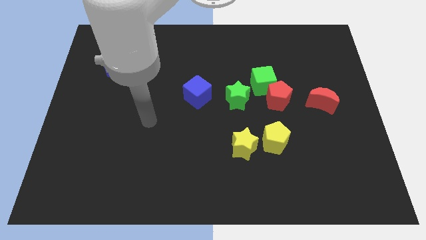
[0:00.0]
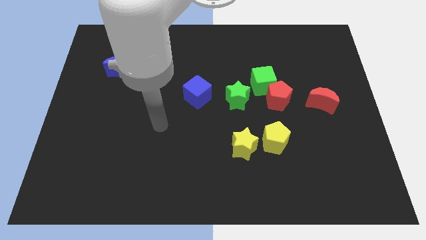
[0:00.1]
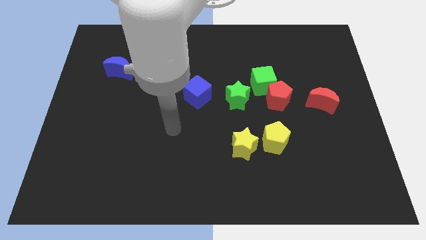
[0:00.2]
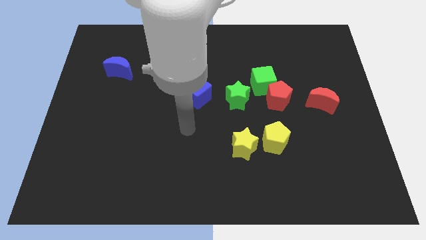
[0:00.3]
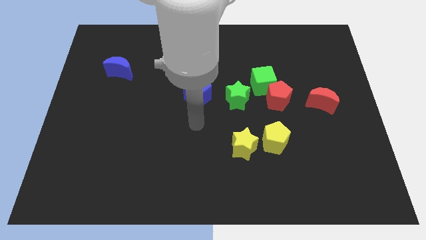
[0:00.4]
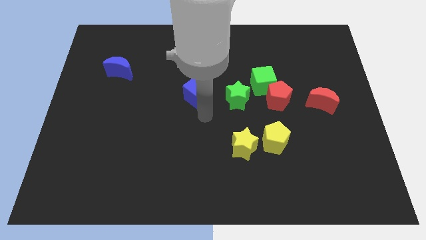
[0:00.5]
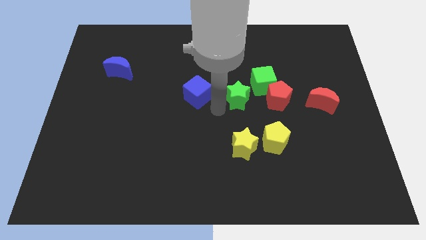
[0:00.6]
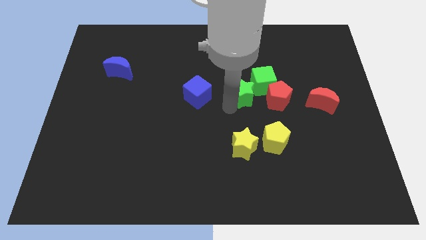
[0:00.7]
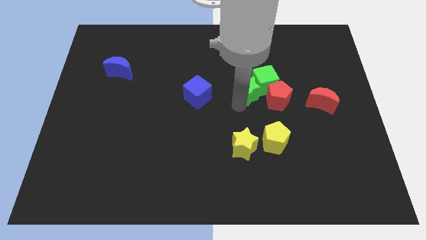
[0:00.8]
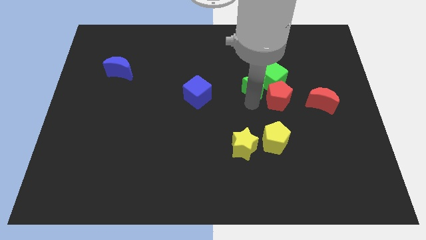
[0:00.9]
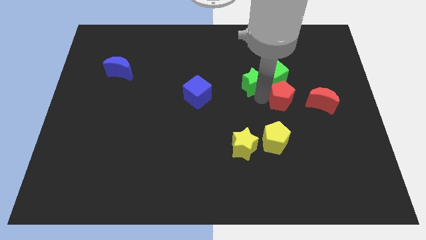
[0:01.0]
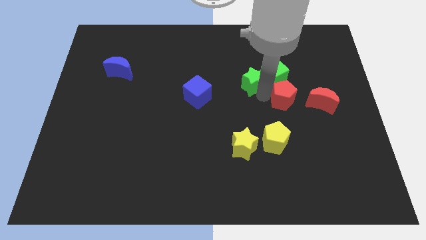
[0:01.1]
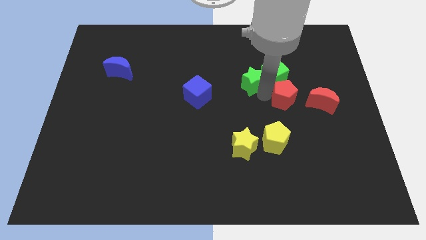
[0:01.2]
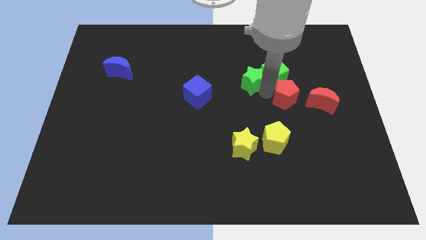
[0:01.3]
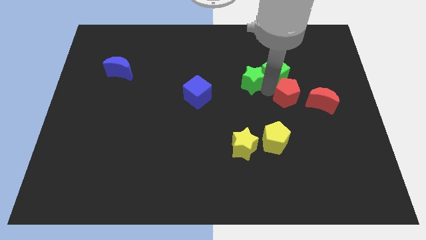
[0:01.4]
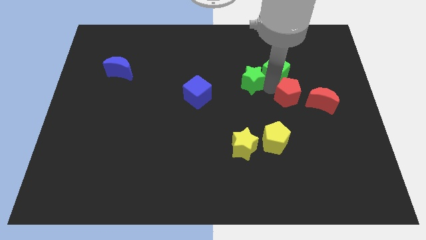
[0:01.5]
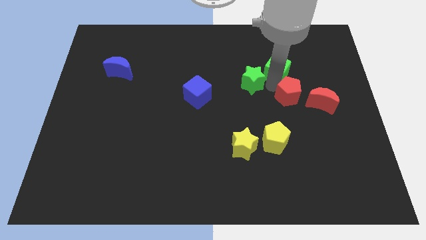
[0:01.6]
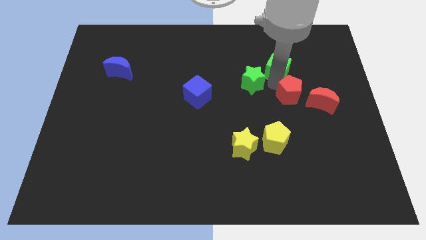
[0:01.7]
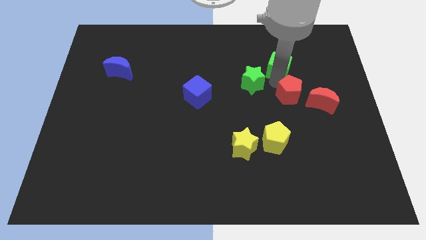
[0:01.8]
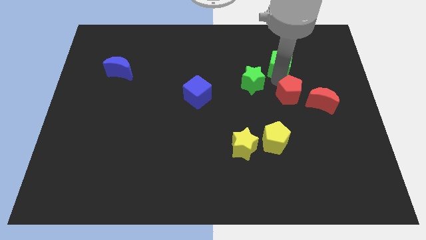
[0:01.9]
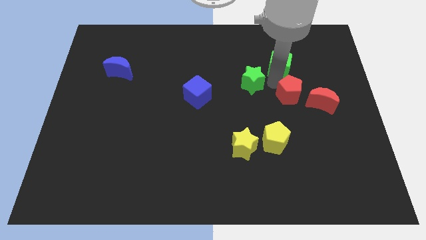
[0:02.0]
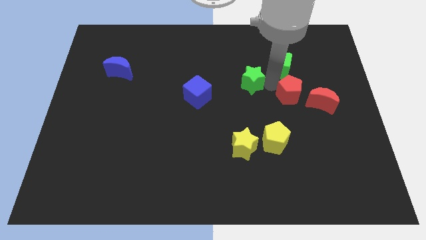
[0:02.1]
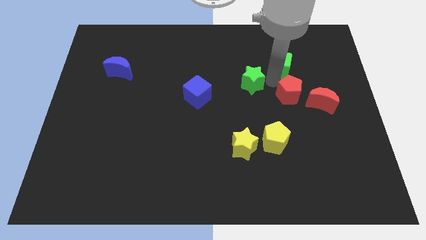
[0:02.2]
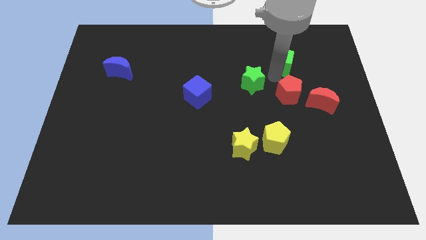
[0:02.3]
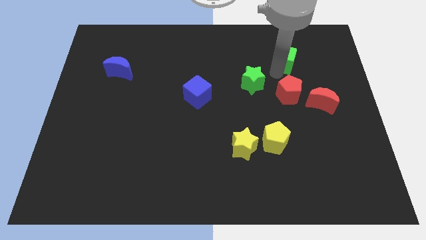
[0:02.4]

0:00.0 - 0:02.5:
separate the green cube from the red pentagon and green star

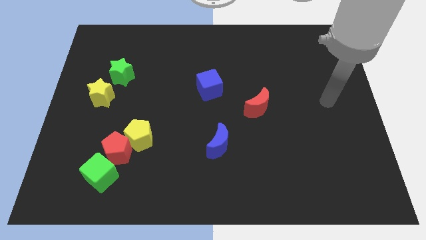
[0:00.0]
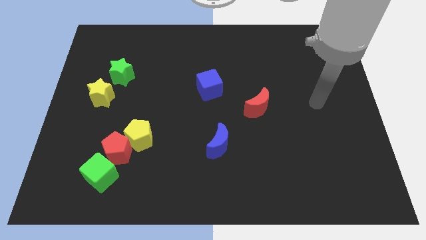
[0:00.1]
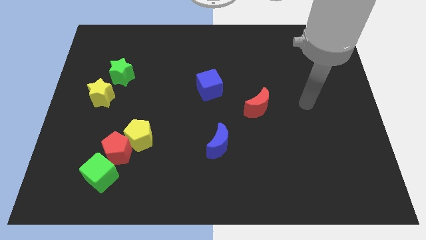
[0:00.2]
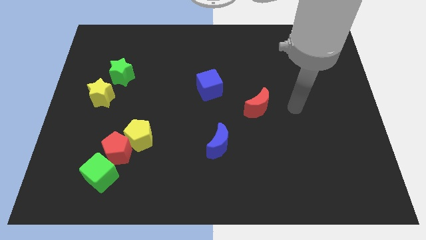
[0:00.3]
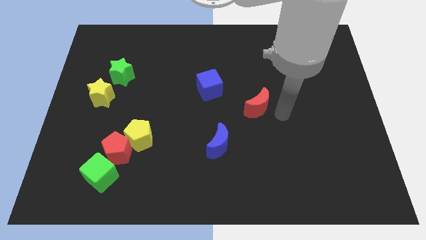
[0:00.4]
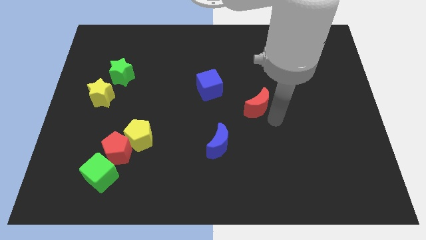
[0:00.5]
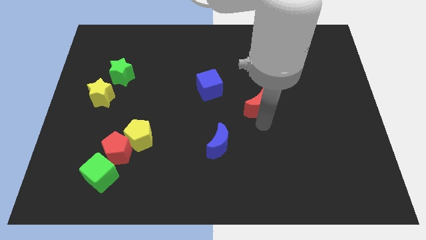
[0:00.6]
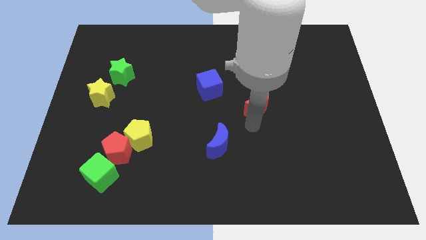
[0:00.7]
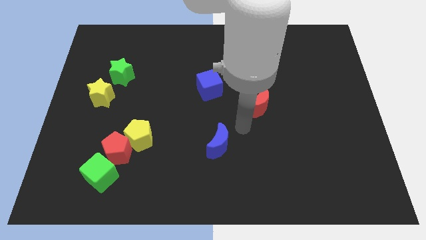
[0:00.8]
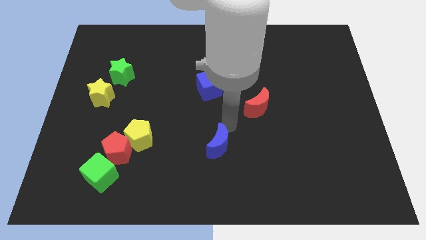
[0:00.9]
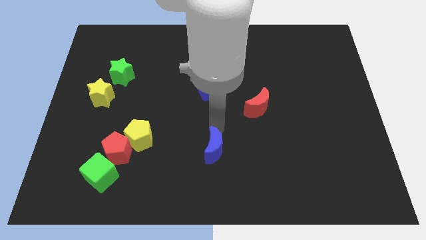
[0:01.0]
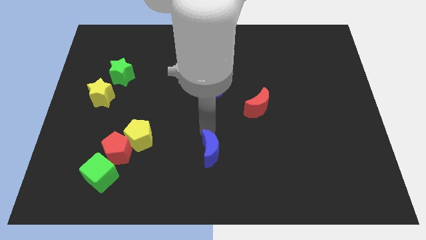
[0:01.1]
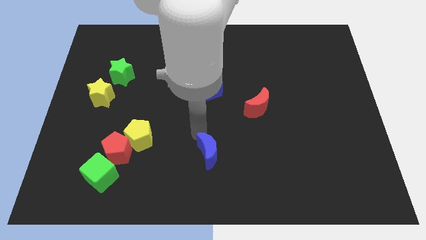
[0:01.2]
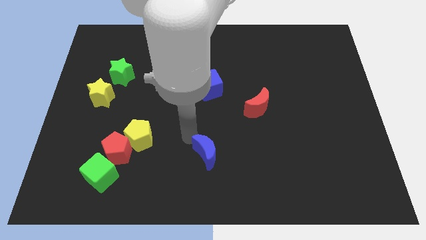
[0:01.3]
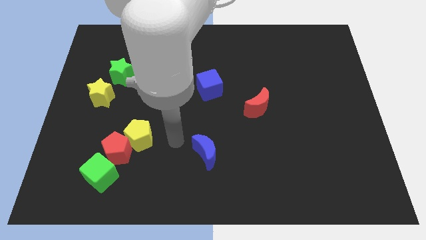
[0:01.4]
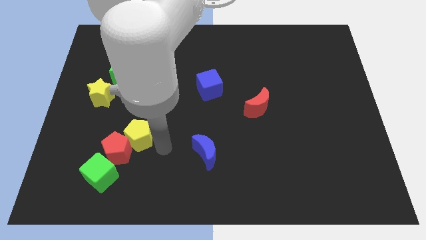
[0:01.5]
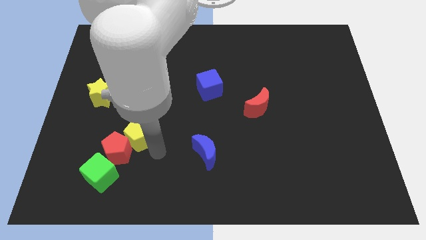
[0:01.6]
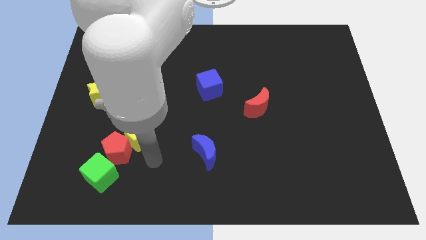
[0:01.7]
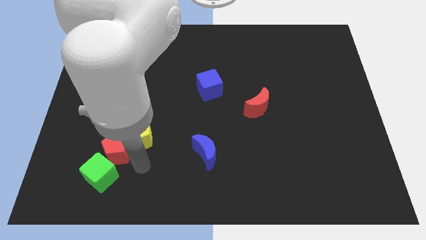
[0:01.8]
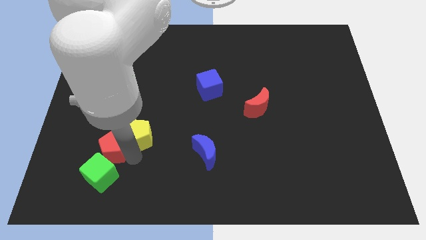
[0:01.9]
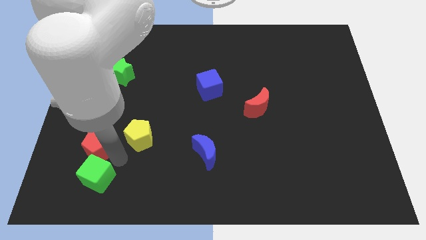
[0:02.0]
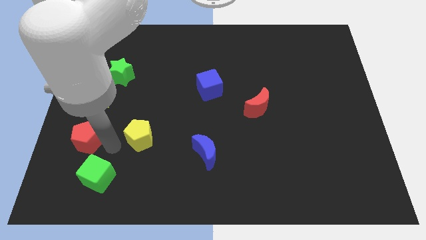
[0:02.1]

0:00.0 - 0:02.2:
separate the yellow pentagon from the red pentagon

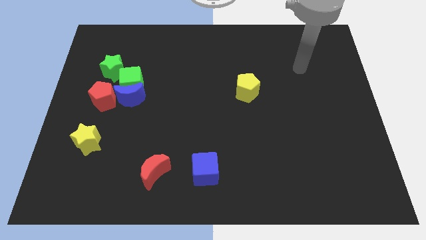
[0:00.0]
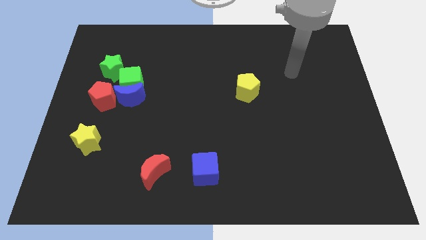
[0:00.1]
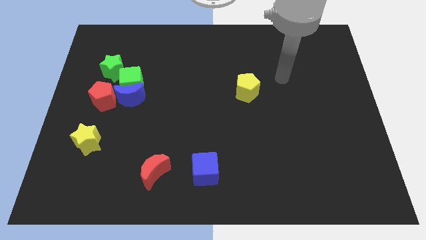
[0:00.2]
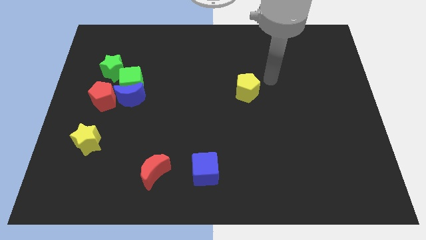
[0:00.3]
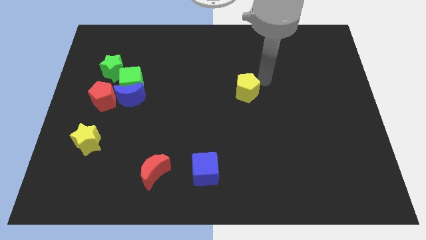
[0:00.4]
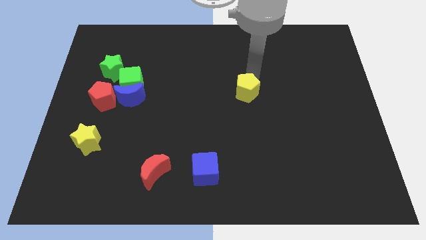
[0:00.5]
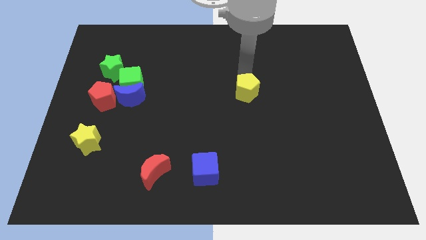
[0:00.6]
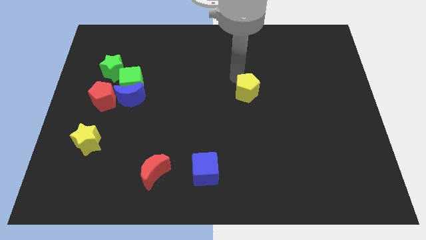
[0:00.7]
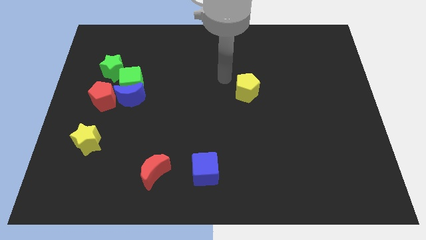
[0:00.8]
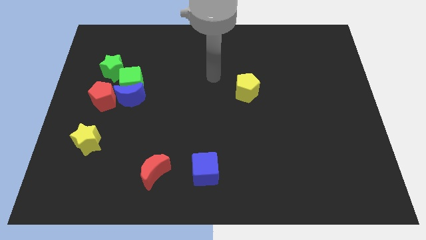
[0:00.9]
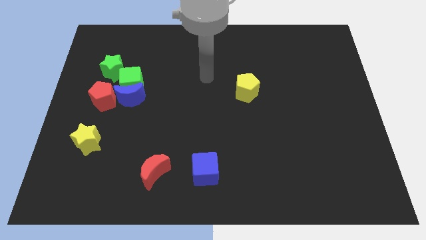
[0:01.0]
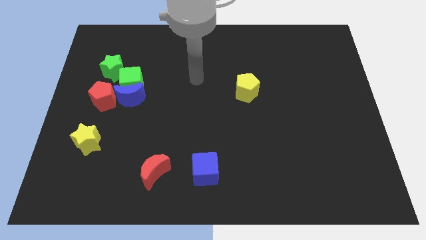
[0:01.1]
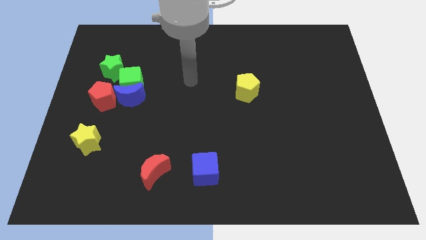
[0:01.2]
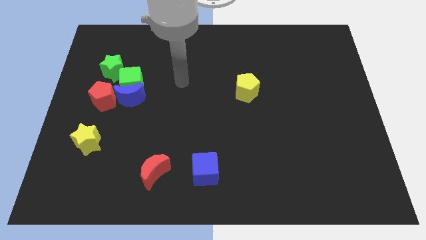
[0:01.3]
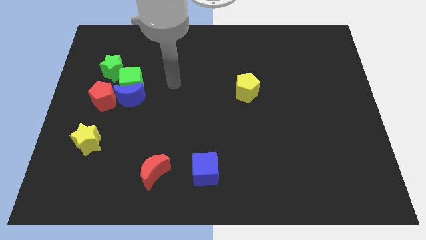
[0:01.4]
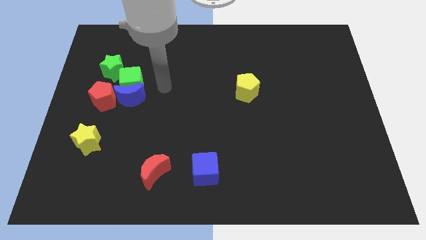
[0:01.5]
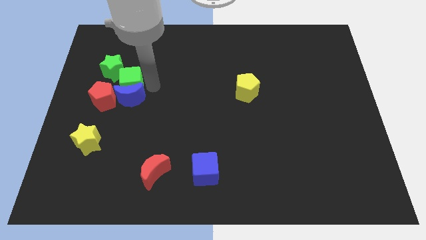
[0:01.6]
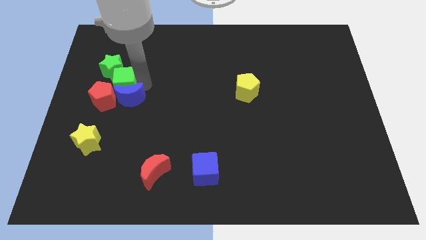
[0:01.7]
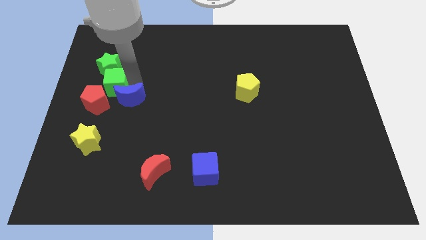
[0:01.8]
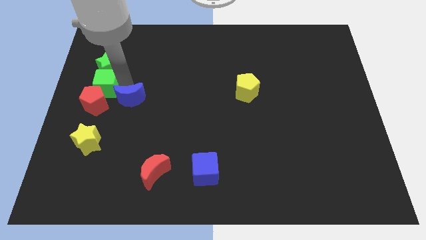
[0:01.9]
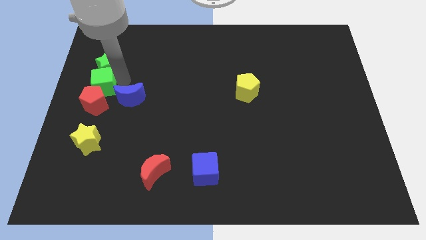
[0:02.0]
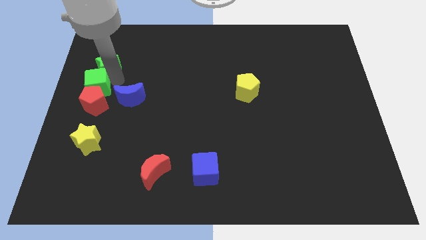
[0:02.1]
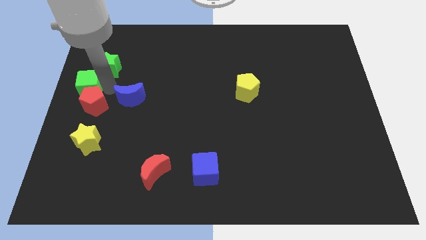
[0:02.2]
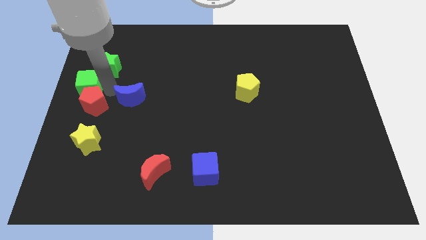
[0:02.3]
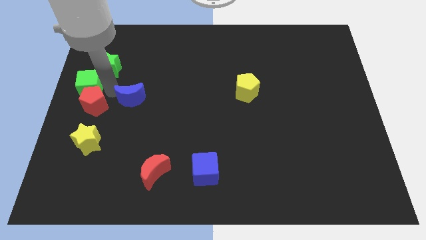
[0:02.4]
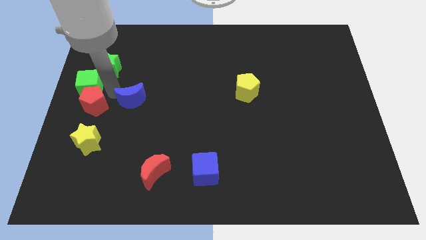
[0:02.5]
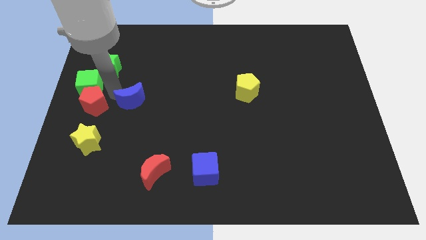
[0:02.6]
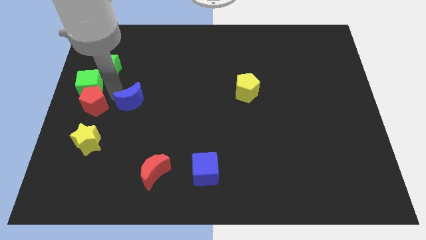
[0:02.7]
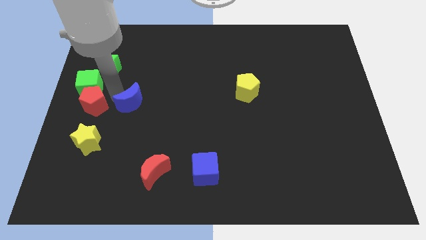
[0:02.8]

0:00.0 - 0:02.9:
pull the blue moon apart from the green cube and red pentagon

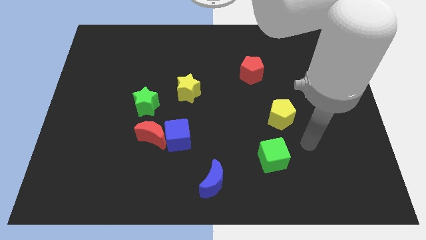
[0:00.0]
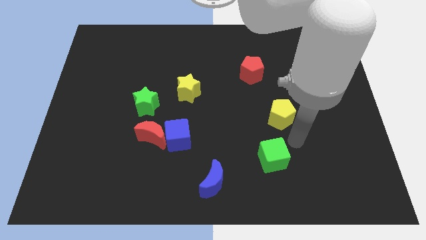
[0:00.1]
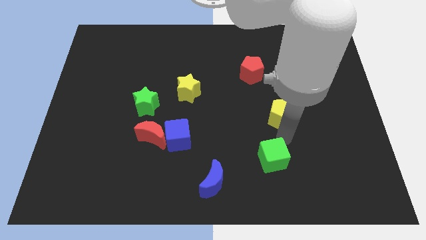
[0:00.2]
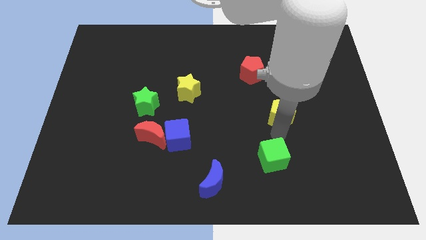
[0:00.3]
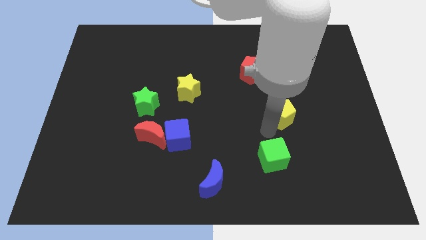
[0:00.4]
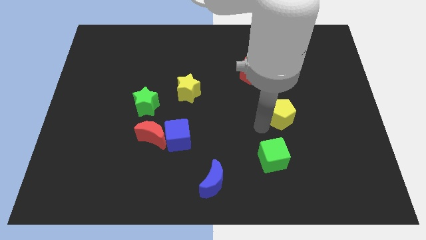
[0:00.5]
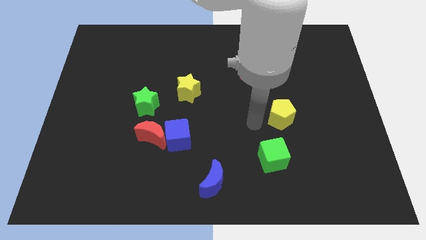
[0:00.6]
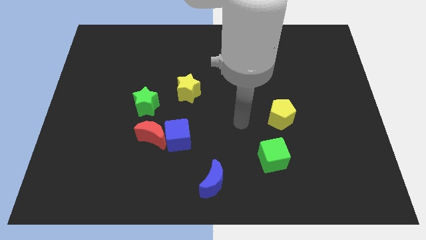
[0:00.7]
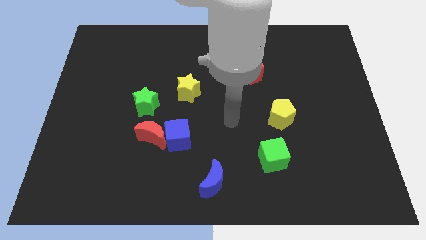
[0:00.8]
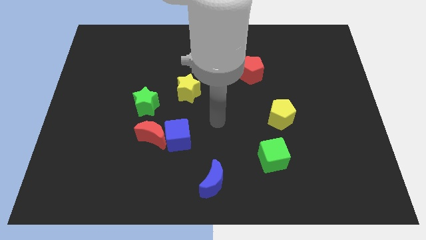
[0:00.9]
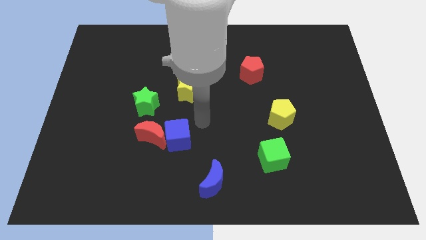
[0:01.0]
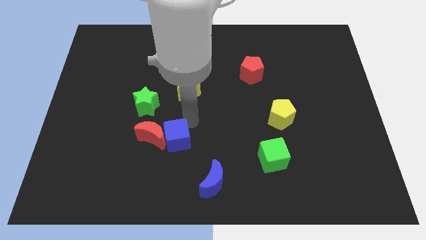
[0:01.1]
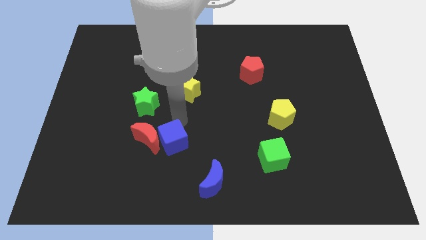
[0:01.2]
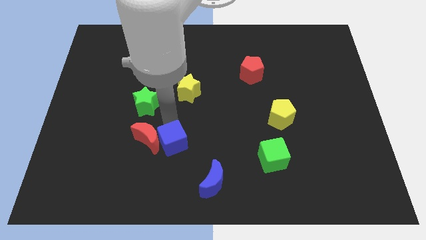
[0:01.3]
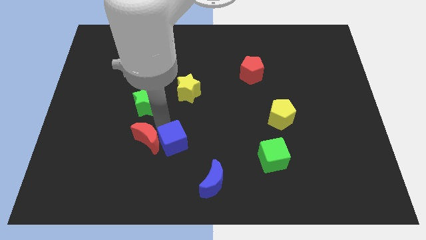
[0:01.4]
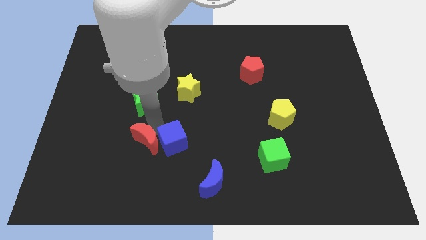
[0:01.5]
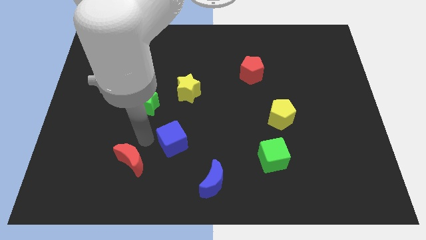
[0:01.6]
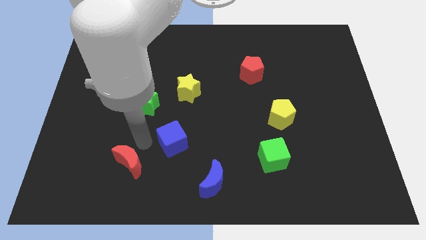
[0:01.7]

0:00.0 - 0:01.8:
move the blue cube away from the red moon
